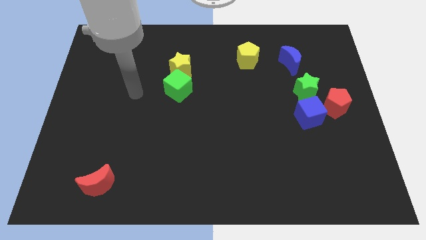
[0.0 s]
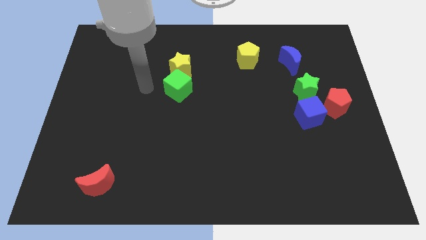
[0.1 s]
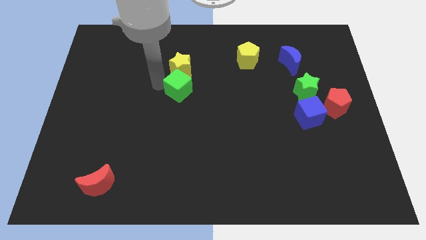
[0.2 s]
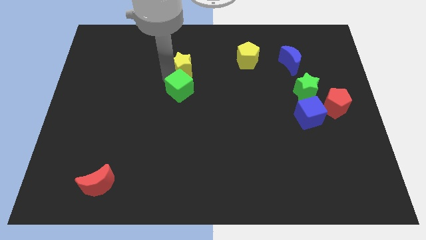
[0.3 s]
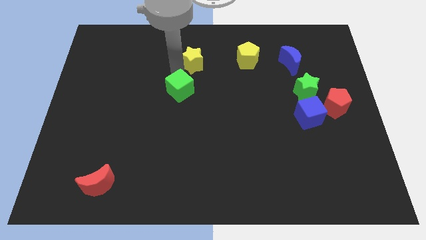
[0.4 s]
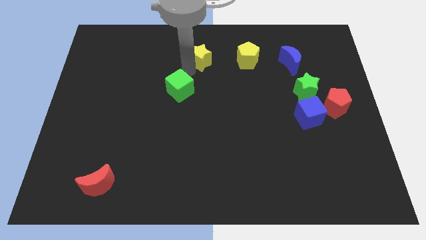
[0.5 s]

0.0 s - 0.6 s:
move the green cube away from the yellow star

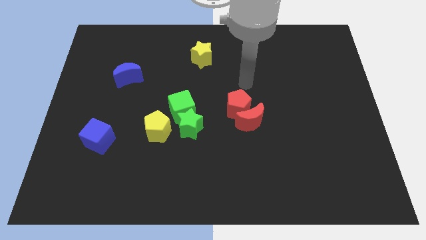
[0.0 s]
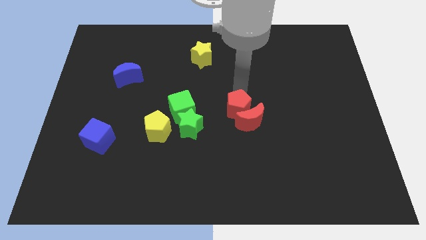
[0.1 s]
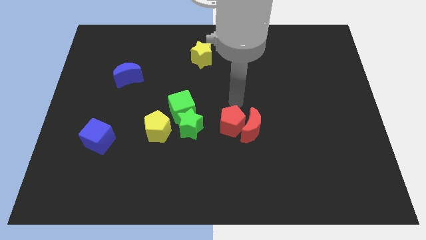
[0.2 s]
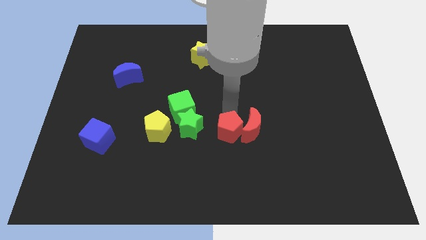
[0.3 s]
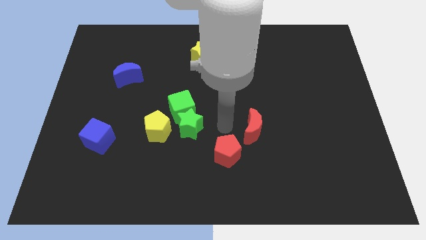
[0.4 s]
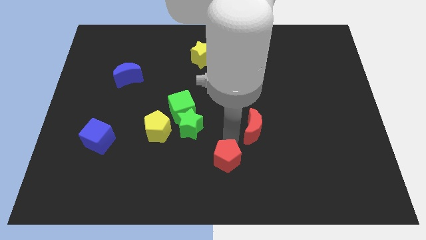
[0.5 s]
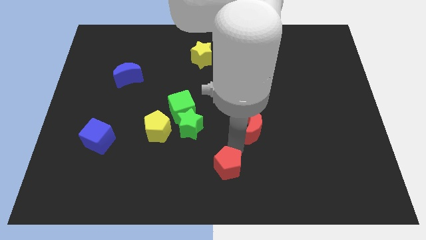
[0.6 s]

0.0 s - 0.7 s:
pull the red moon apart from the red pentagon

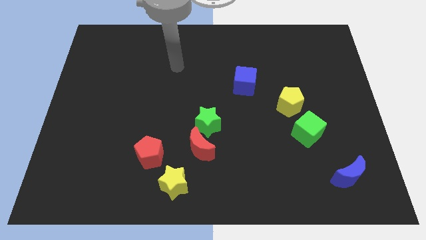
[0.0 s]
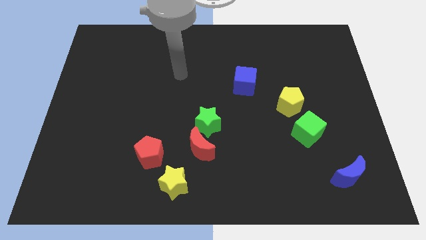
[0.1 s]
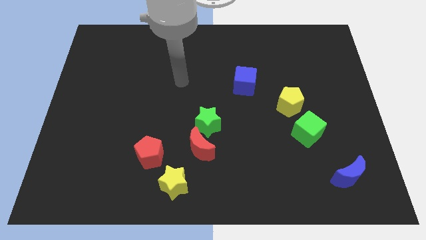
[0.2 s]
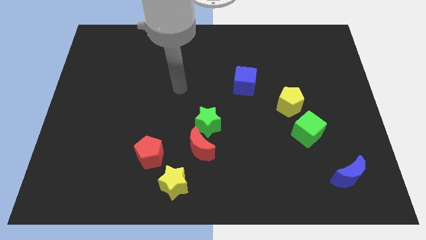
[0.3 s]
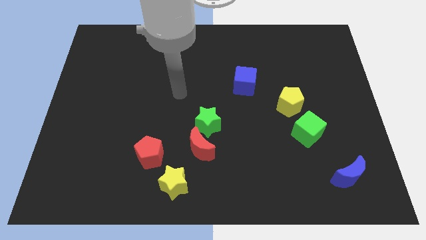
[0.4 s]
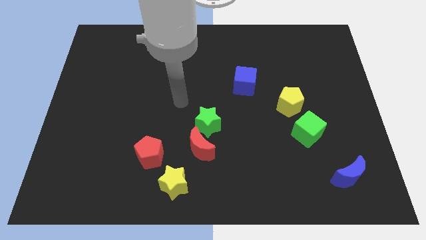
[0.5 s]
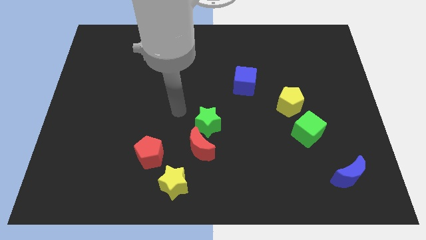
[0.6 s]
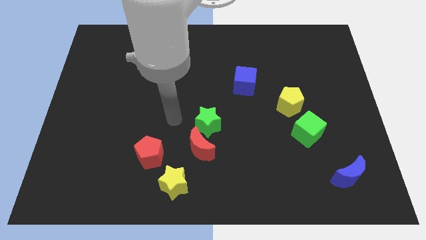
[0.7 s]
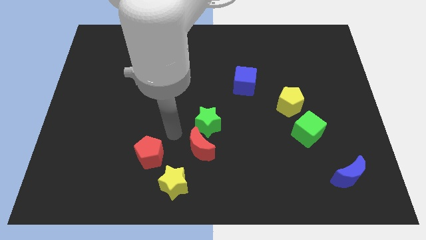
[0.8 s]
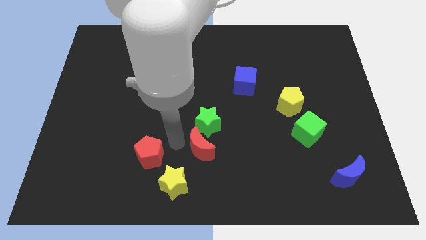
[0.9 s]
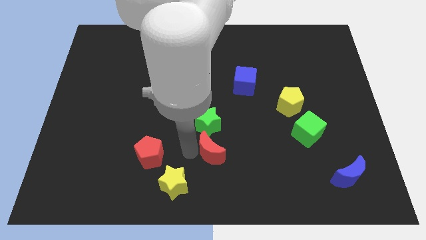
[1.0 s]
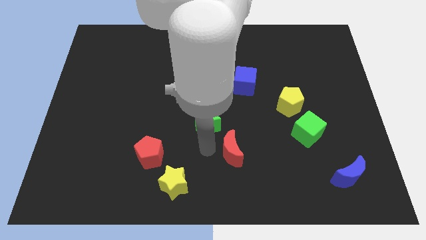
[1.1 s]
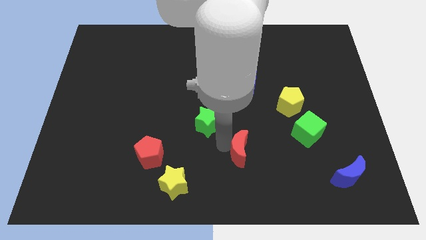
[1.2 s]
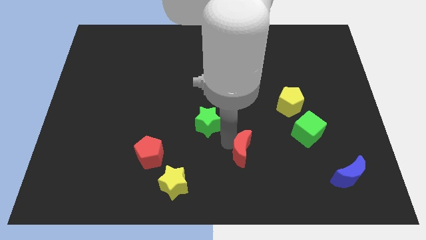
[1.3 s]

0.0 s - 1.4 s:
separate the green star from the red moon

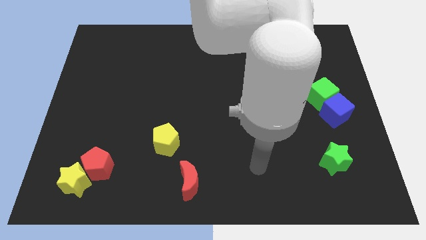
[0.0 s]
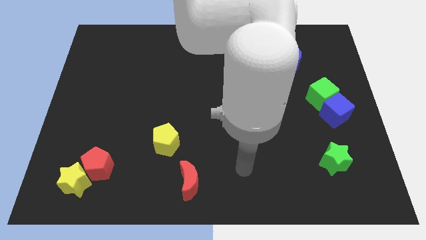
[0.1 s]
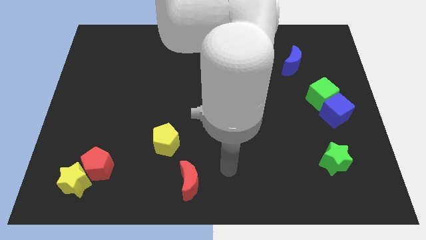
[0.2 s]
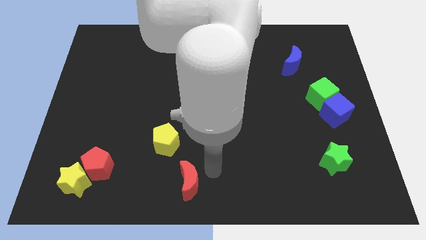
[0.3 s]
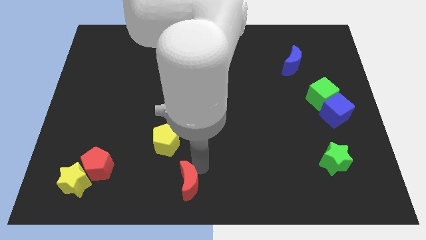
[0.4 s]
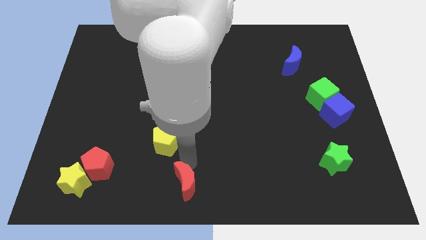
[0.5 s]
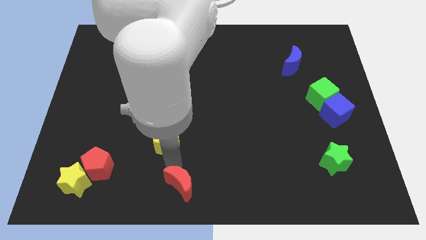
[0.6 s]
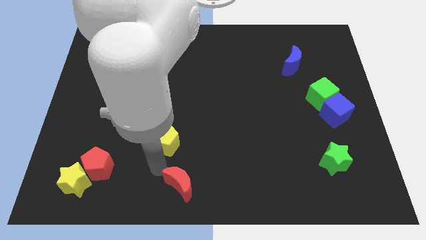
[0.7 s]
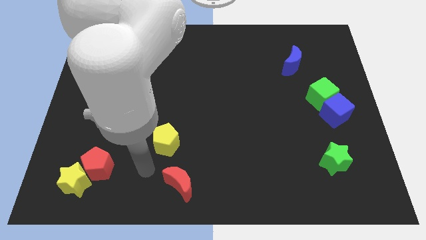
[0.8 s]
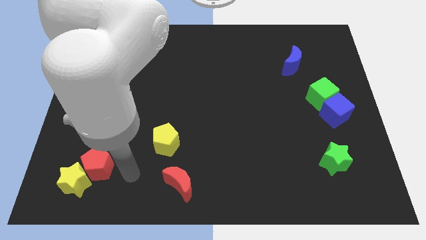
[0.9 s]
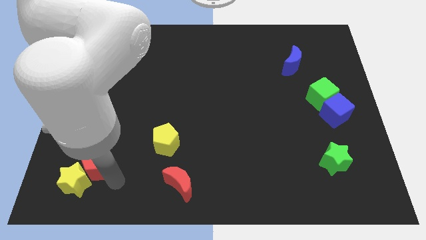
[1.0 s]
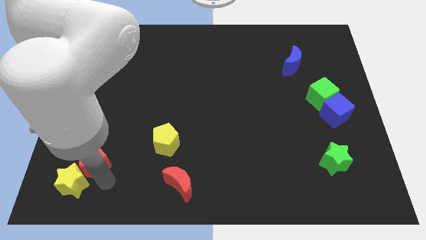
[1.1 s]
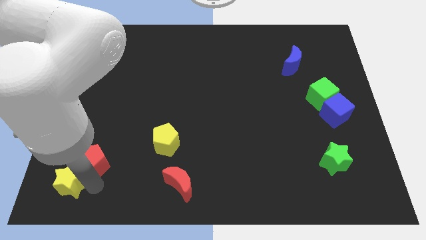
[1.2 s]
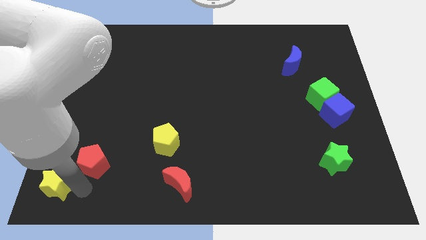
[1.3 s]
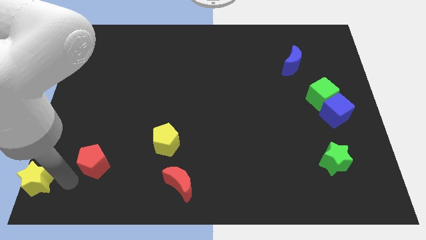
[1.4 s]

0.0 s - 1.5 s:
pull the red pentagon apart from the yellow star

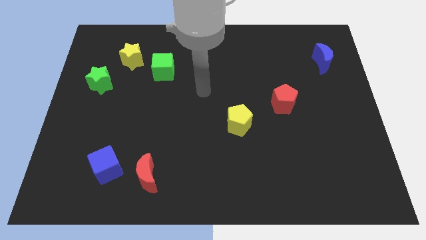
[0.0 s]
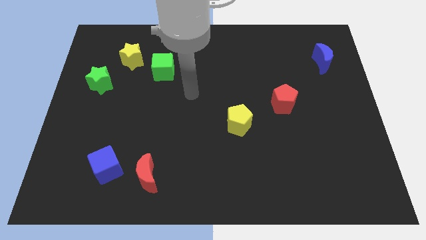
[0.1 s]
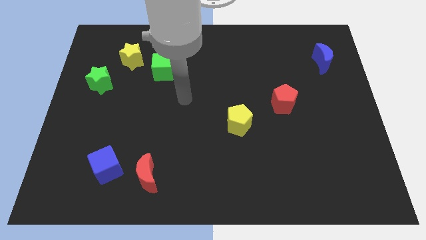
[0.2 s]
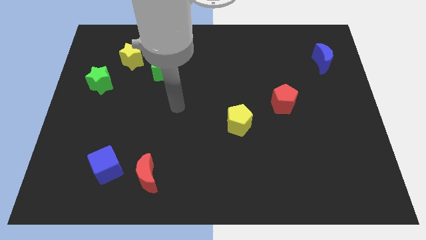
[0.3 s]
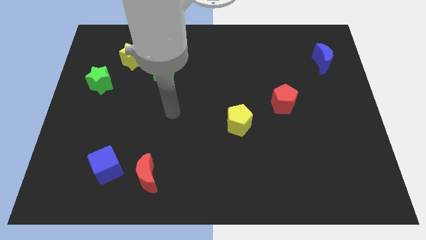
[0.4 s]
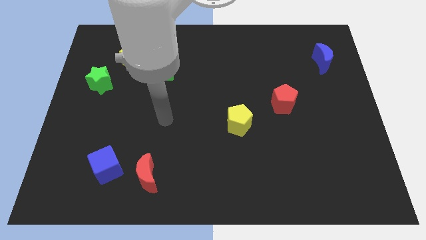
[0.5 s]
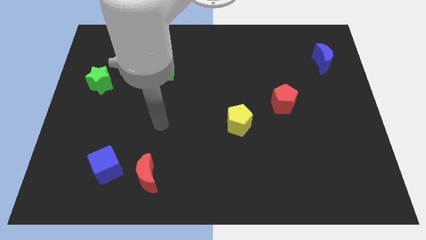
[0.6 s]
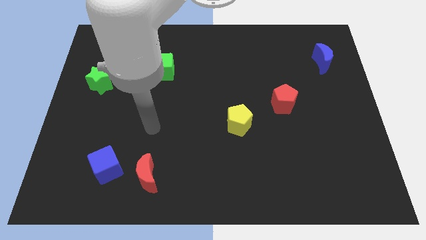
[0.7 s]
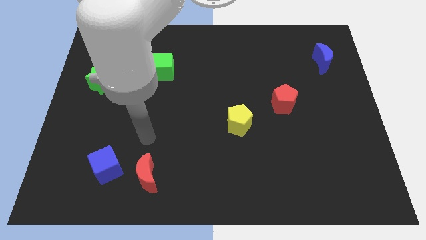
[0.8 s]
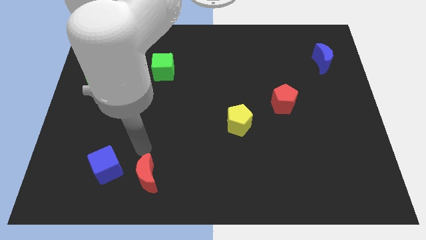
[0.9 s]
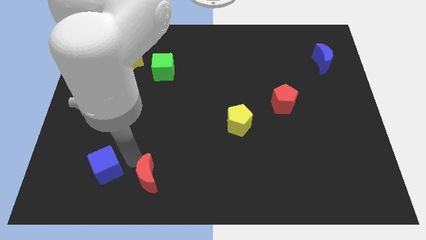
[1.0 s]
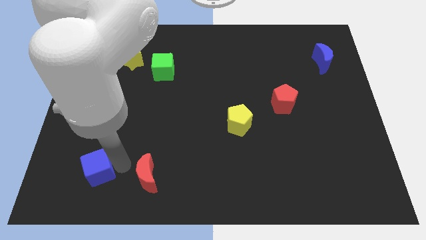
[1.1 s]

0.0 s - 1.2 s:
move the red moon away from the blue cube

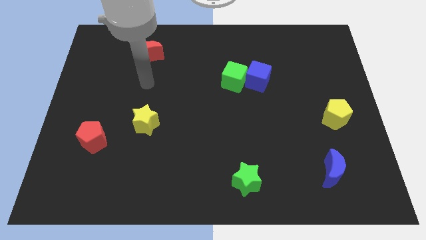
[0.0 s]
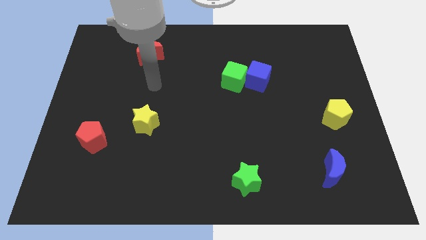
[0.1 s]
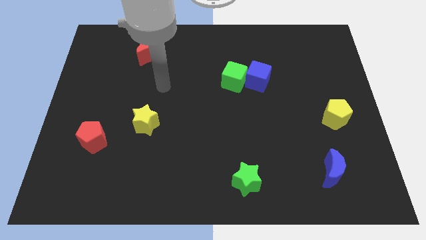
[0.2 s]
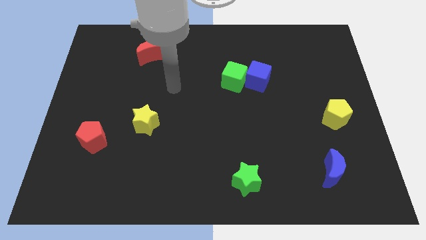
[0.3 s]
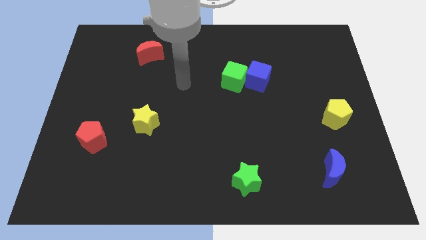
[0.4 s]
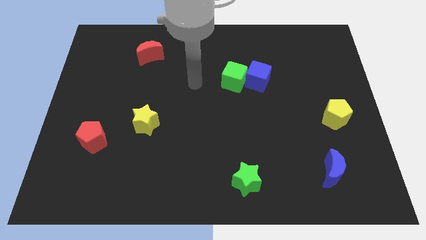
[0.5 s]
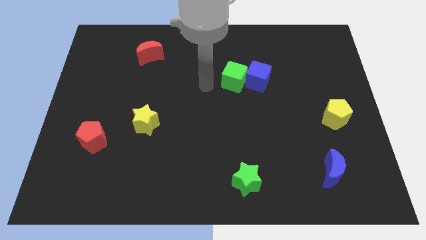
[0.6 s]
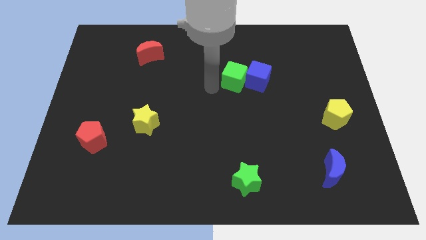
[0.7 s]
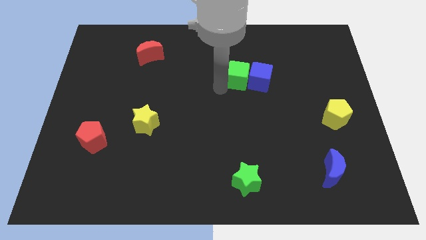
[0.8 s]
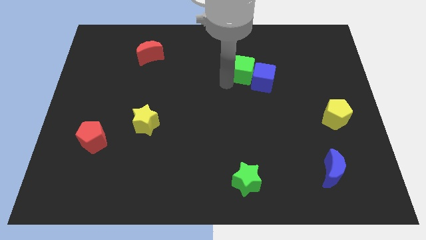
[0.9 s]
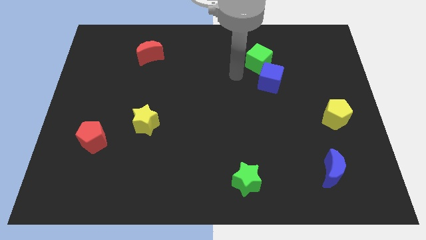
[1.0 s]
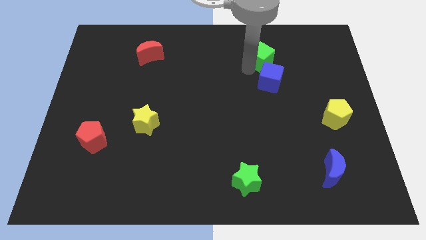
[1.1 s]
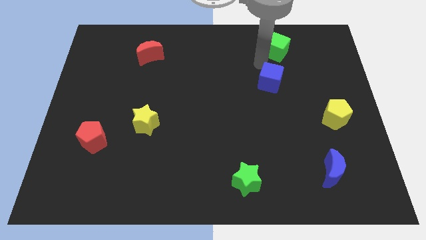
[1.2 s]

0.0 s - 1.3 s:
move the blue cube away from the green cube

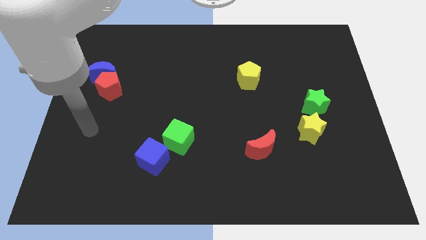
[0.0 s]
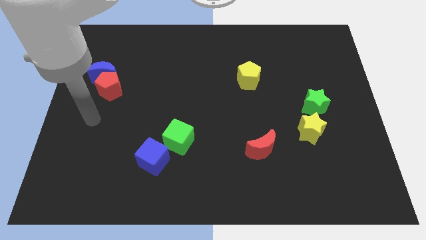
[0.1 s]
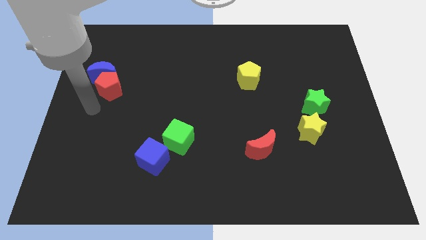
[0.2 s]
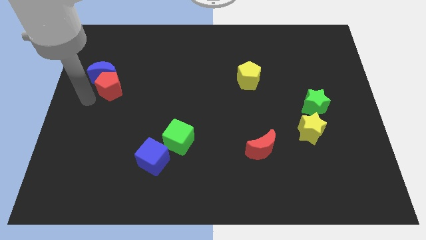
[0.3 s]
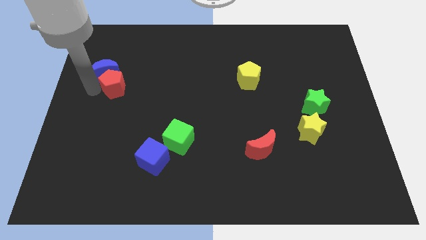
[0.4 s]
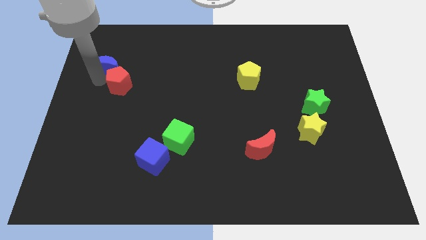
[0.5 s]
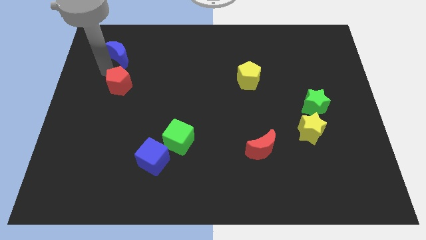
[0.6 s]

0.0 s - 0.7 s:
pull the red pentagon apart from the blue moon

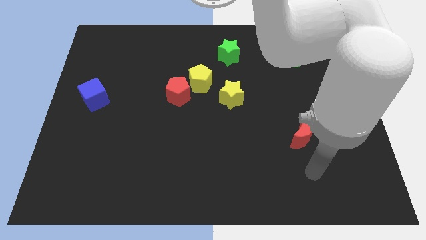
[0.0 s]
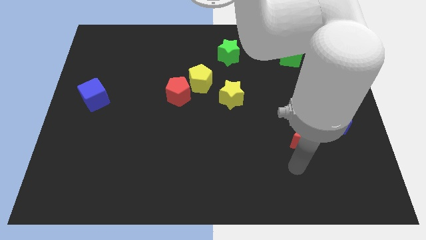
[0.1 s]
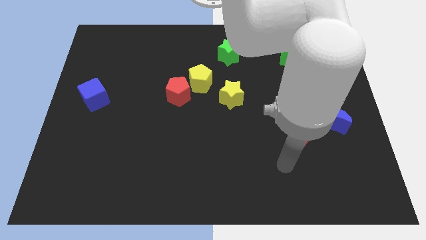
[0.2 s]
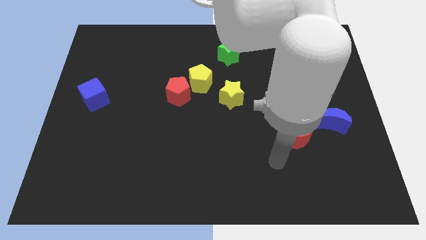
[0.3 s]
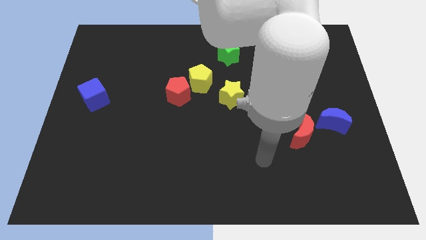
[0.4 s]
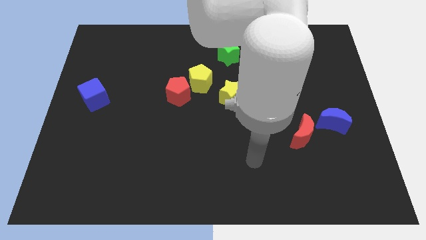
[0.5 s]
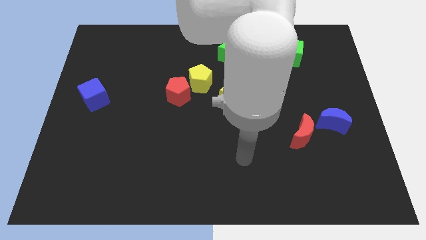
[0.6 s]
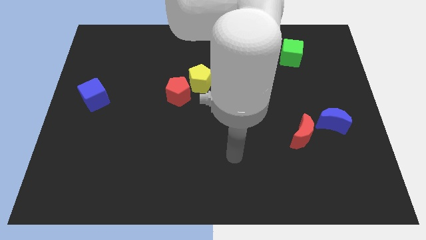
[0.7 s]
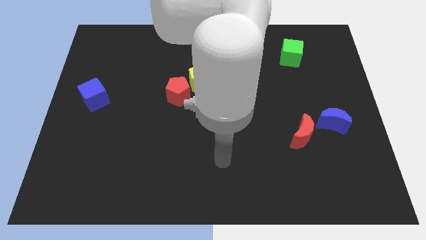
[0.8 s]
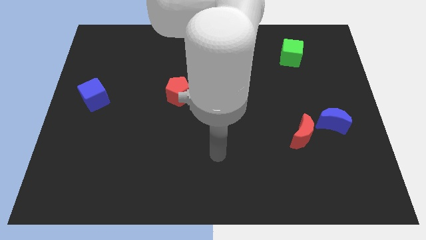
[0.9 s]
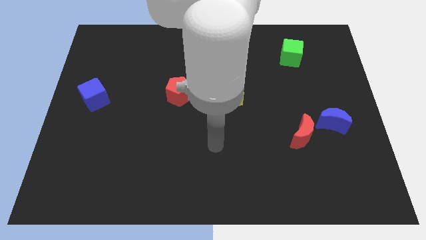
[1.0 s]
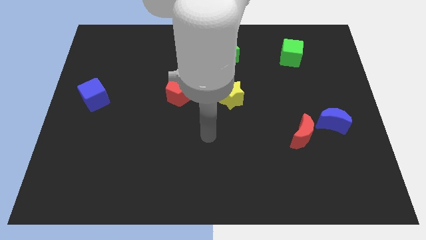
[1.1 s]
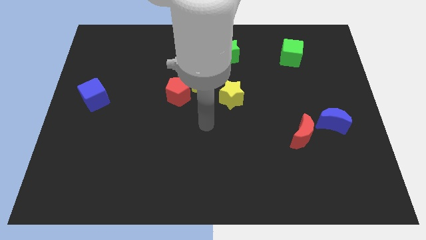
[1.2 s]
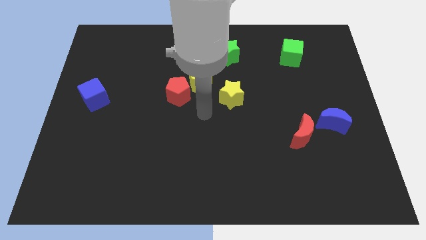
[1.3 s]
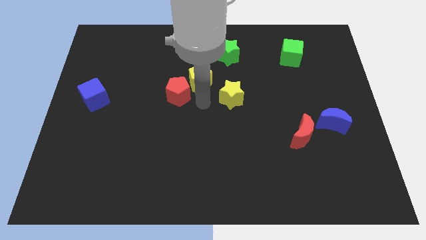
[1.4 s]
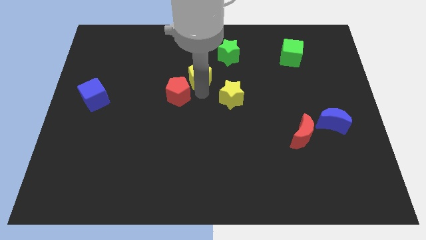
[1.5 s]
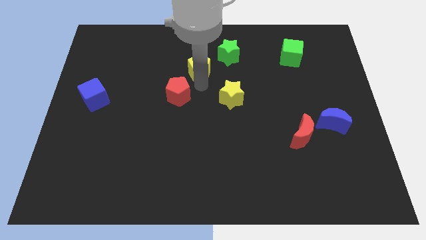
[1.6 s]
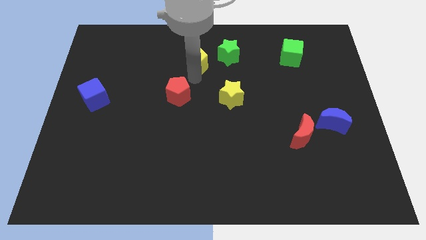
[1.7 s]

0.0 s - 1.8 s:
move the red pentagon away from the yellow pentagon

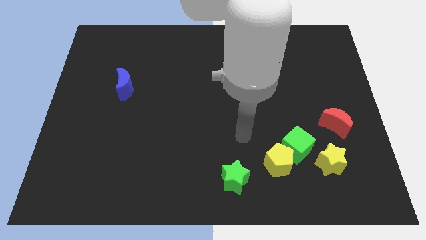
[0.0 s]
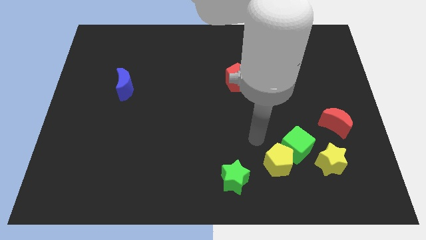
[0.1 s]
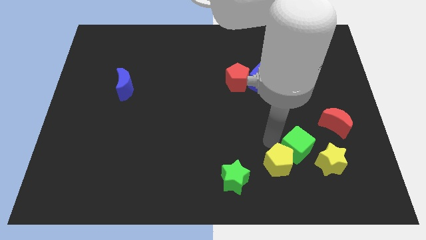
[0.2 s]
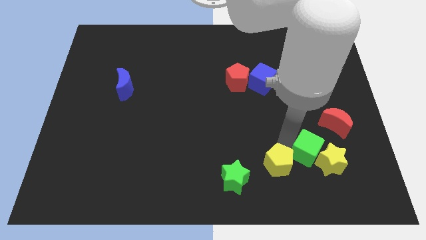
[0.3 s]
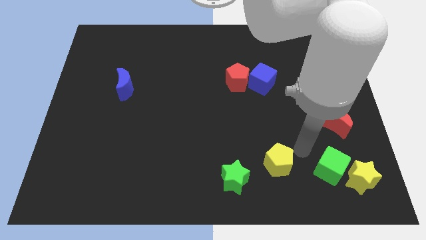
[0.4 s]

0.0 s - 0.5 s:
move the yellow pentagon away from the green cube
